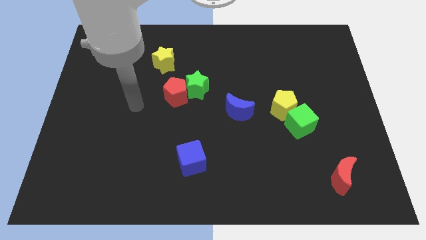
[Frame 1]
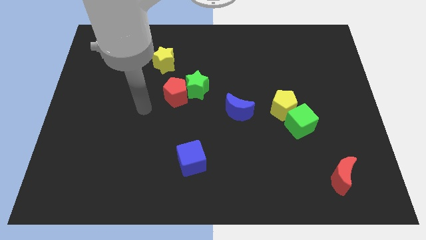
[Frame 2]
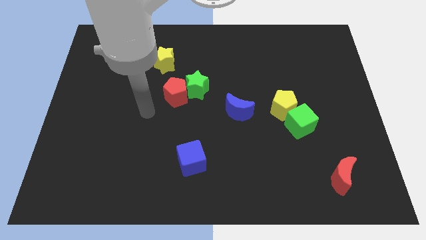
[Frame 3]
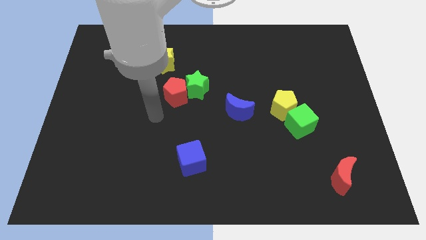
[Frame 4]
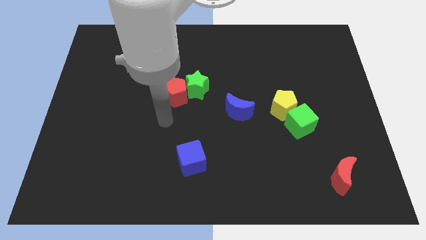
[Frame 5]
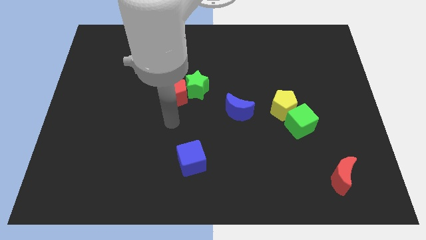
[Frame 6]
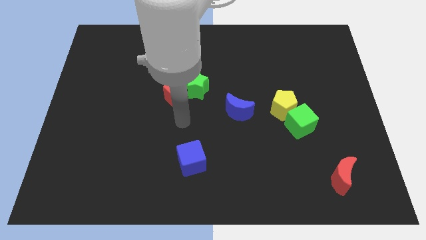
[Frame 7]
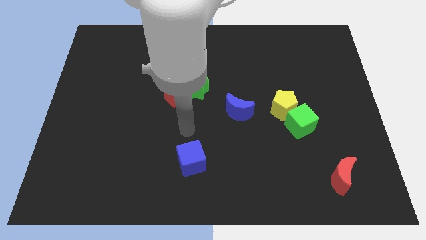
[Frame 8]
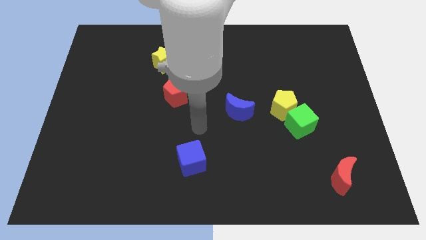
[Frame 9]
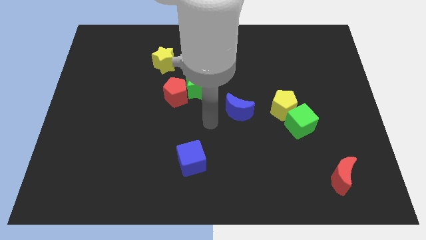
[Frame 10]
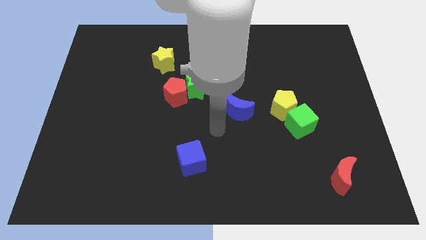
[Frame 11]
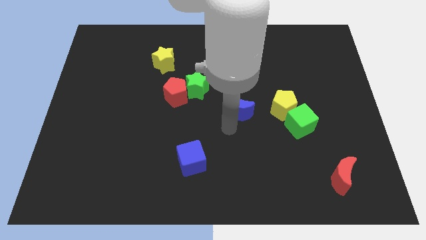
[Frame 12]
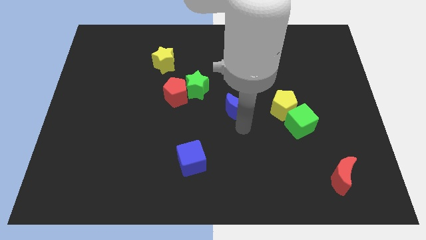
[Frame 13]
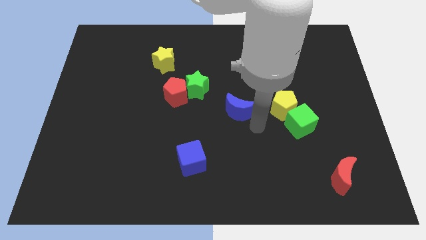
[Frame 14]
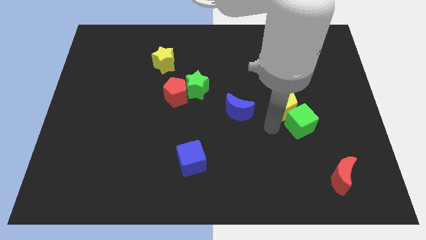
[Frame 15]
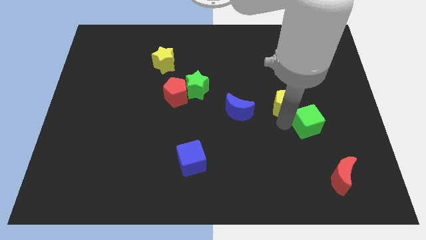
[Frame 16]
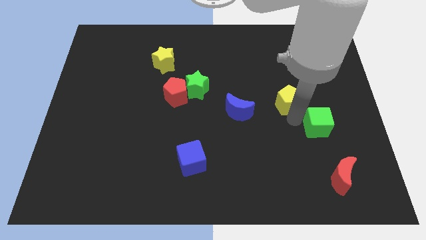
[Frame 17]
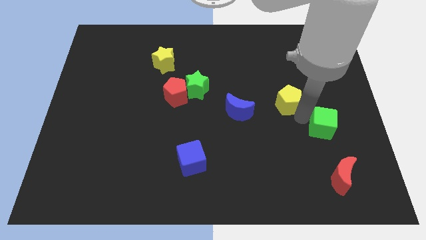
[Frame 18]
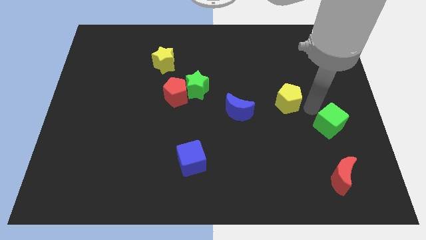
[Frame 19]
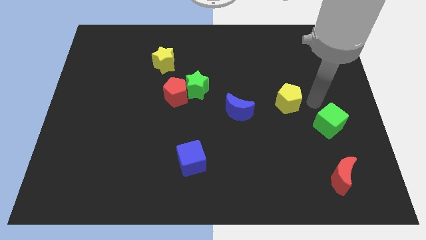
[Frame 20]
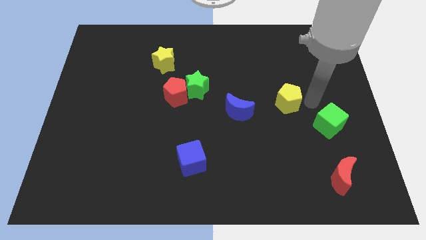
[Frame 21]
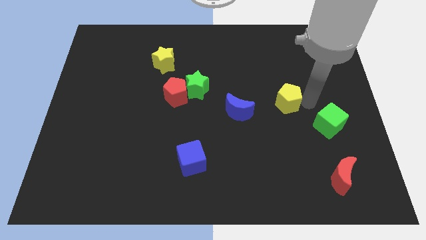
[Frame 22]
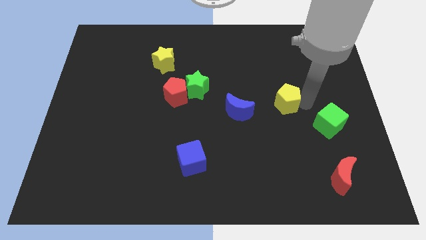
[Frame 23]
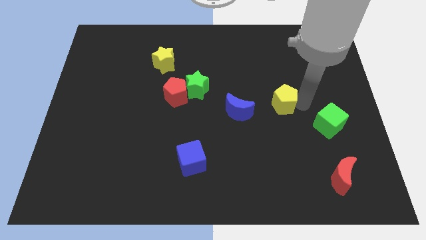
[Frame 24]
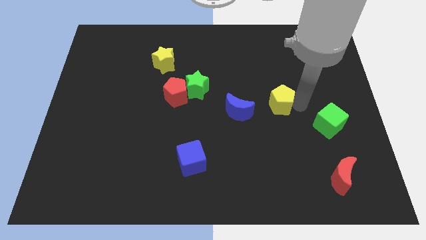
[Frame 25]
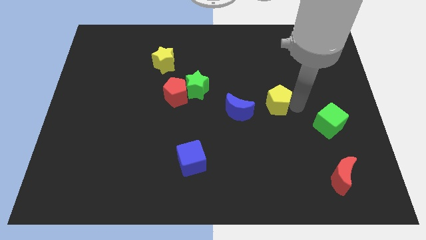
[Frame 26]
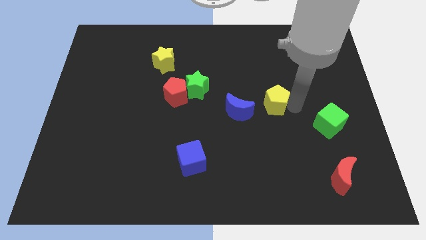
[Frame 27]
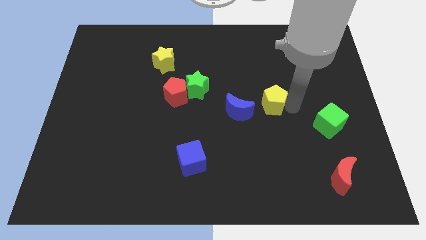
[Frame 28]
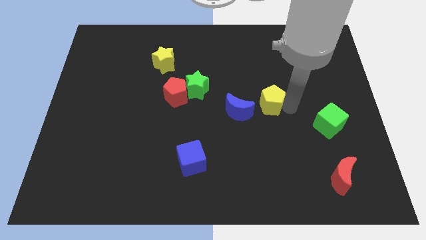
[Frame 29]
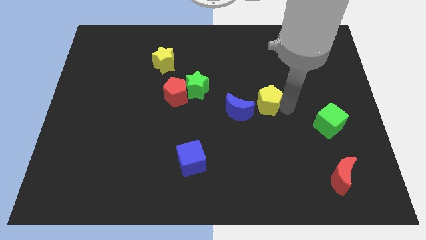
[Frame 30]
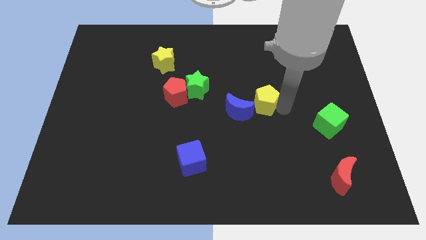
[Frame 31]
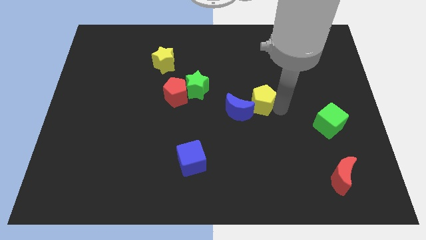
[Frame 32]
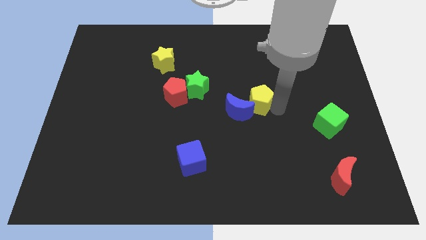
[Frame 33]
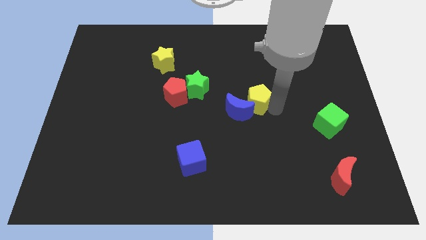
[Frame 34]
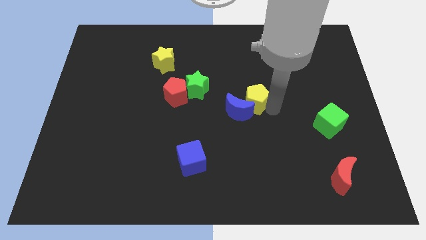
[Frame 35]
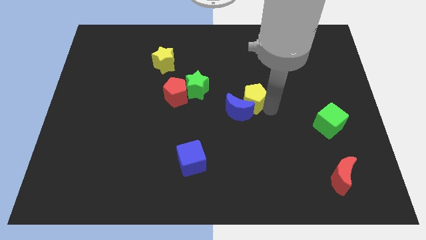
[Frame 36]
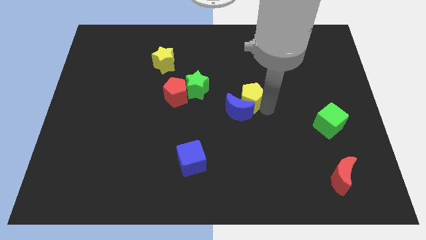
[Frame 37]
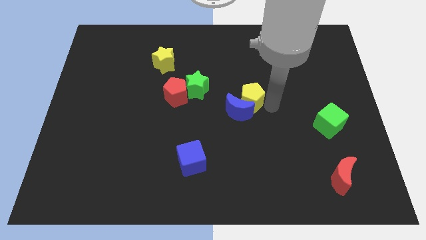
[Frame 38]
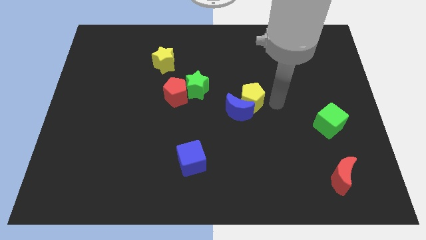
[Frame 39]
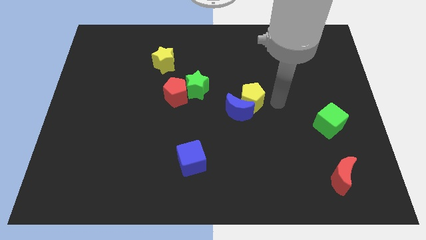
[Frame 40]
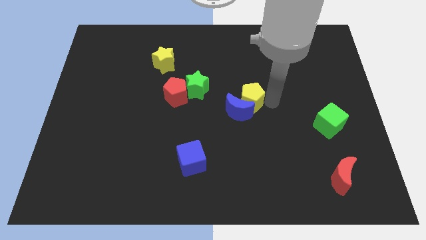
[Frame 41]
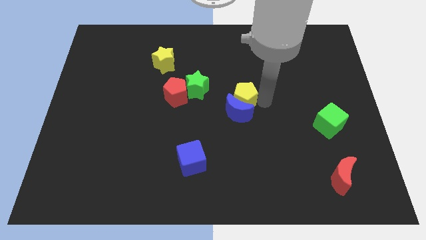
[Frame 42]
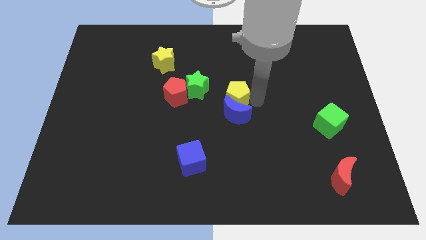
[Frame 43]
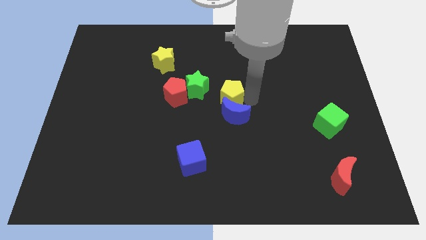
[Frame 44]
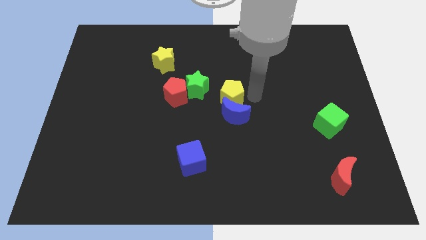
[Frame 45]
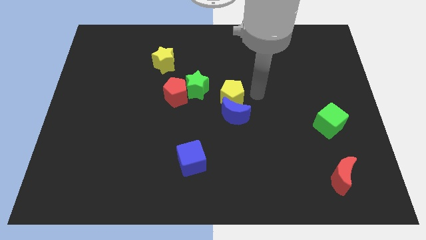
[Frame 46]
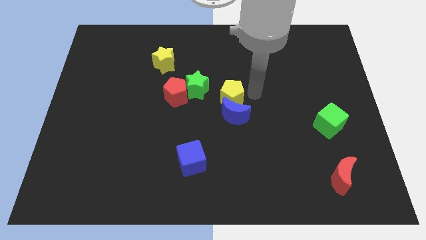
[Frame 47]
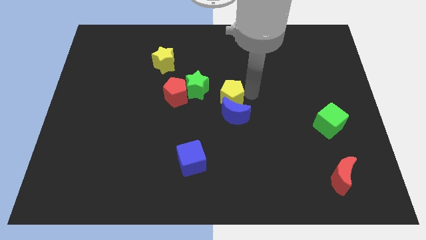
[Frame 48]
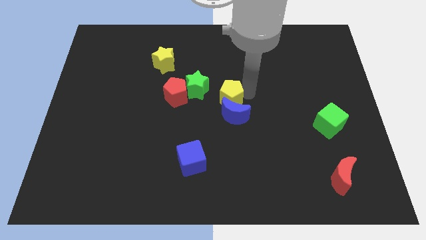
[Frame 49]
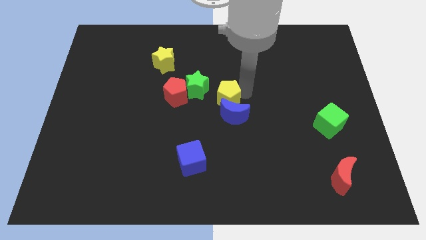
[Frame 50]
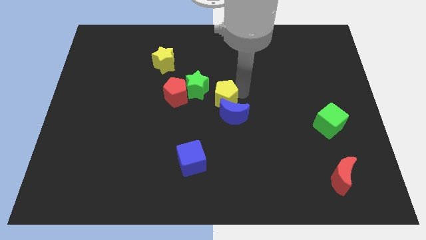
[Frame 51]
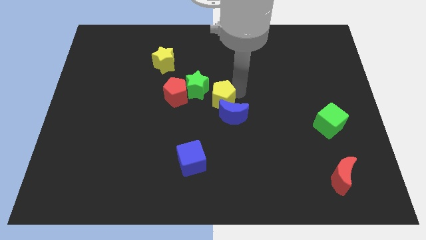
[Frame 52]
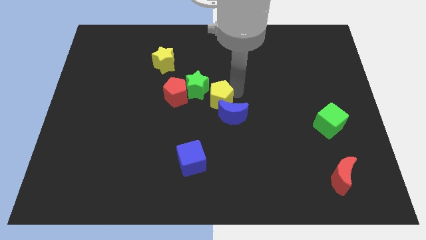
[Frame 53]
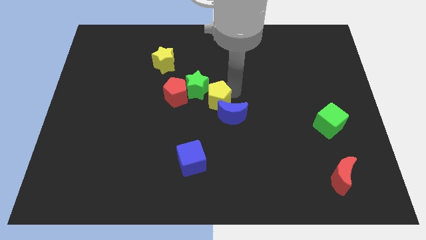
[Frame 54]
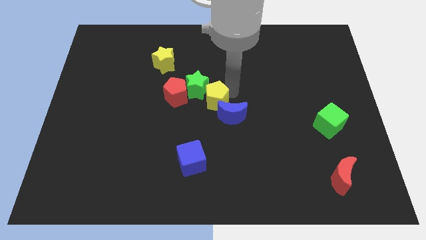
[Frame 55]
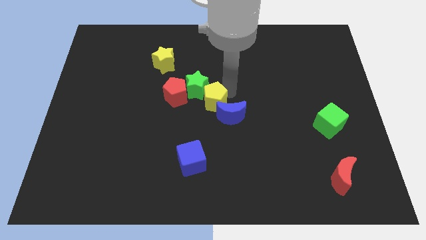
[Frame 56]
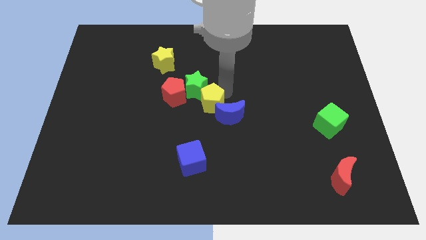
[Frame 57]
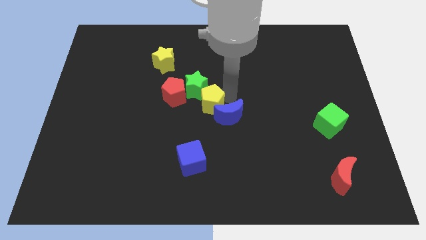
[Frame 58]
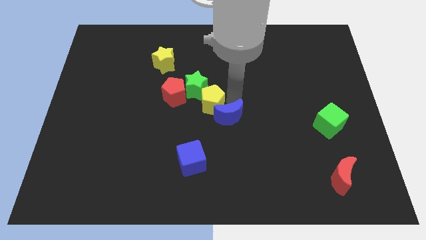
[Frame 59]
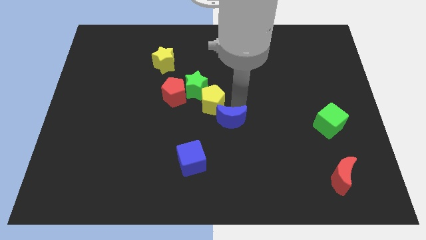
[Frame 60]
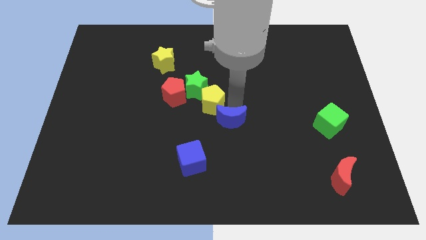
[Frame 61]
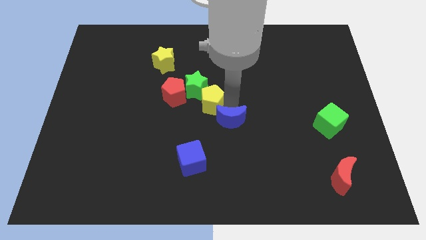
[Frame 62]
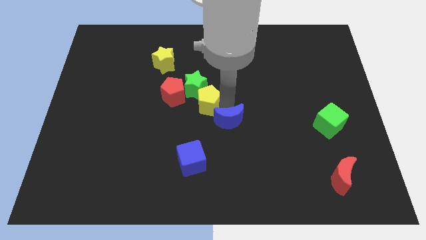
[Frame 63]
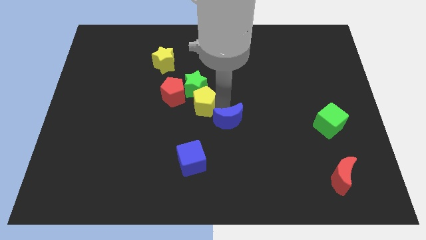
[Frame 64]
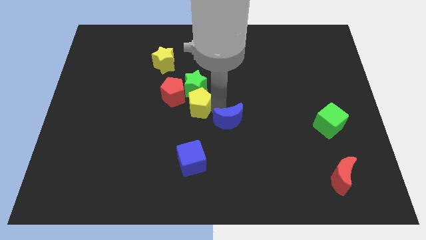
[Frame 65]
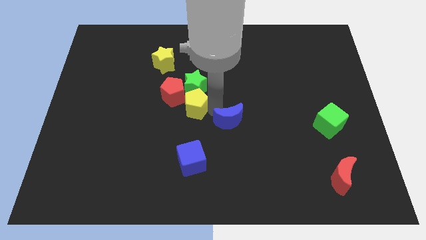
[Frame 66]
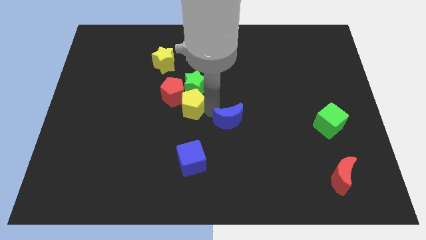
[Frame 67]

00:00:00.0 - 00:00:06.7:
slide the yellow pentagon next to the red pentagon

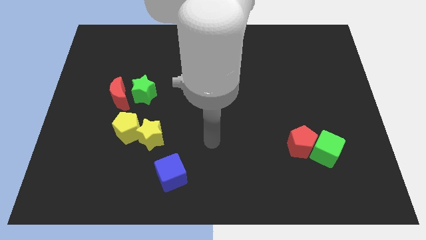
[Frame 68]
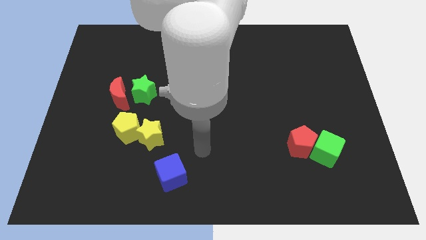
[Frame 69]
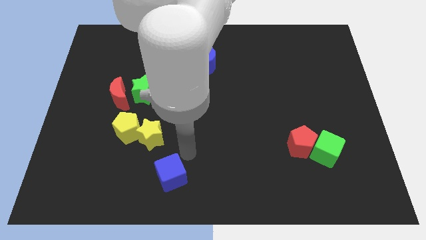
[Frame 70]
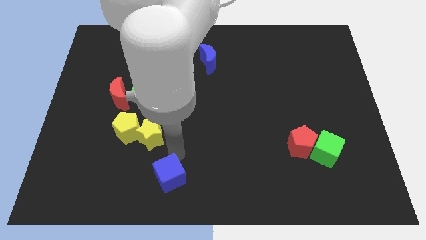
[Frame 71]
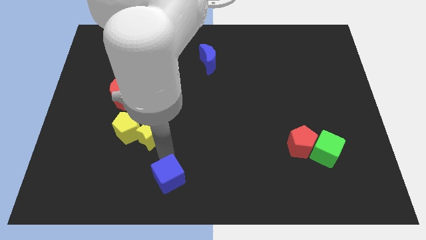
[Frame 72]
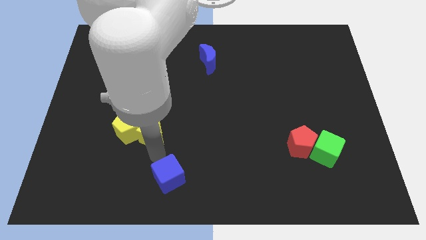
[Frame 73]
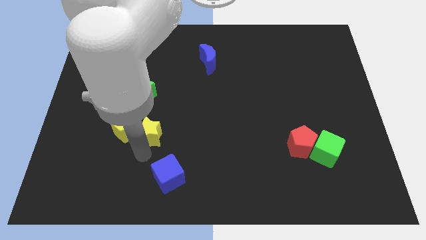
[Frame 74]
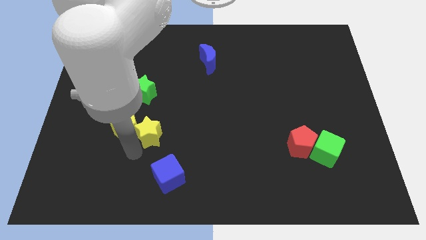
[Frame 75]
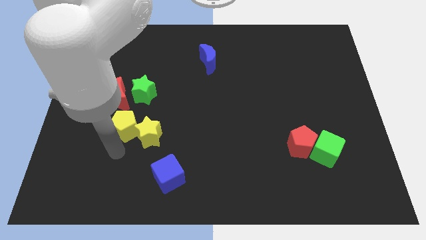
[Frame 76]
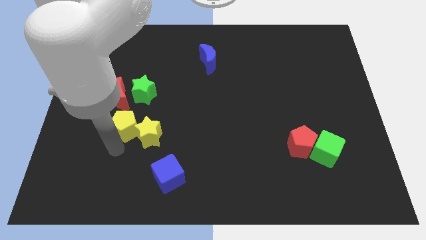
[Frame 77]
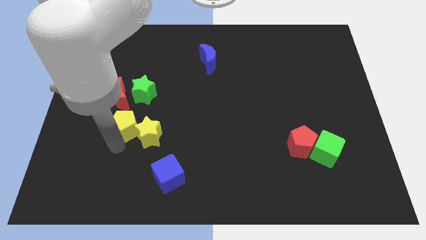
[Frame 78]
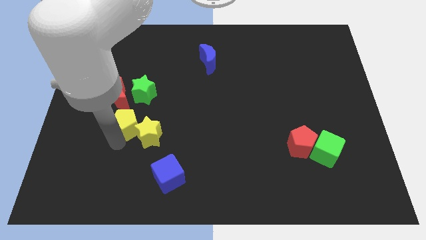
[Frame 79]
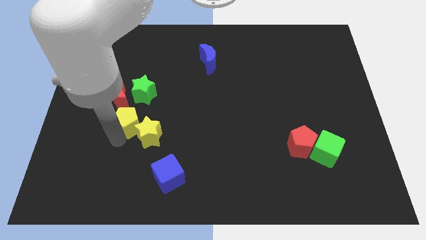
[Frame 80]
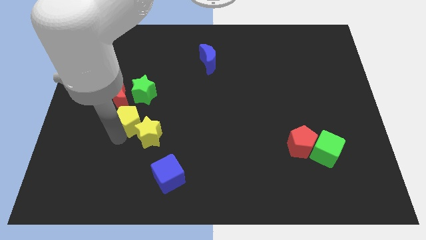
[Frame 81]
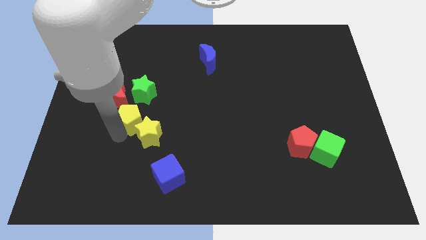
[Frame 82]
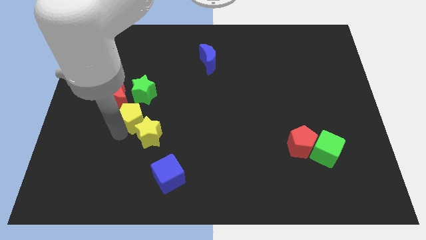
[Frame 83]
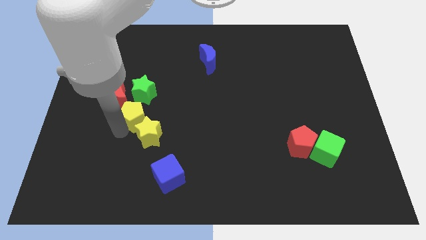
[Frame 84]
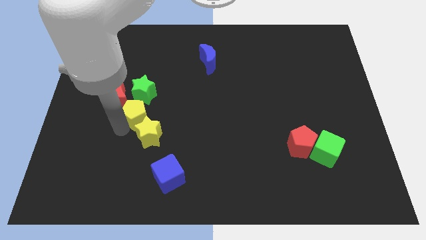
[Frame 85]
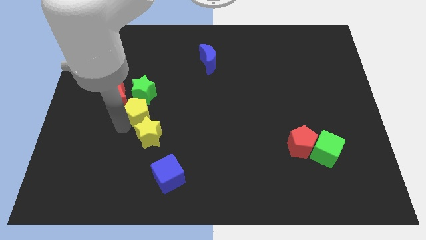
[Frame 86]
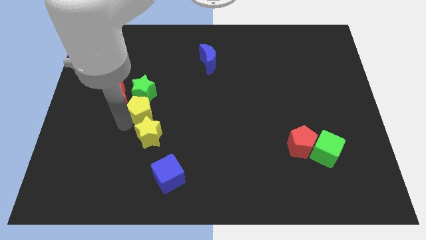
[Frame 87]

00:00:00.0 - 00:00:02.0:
slide the yellow pentagon towards the green star
